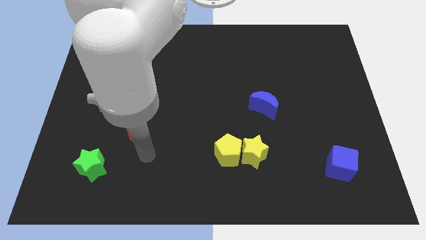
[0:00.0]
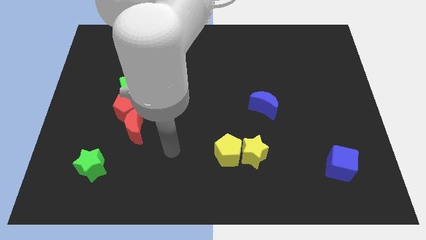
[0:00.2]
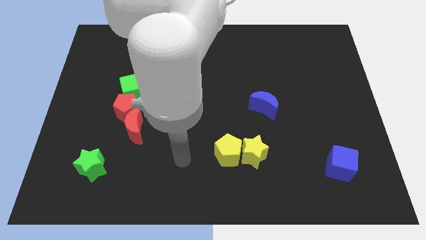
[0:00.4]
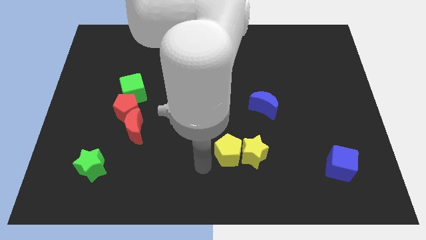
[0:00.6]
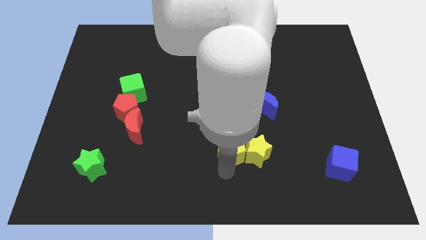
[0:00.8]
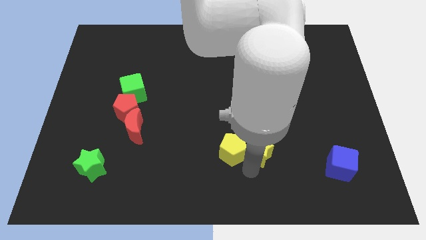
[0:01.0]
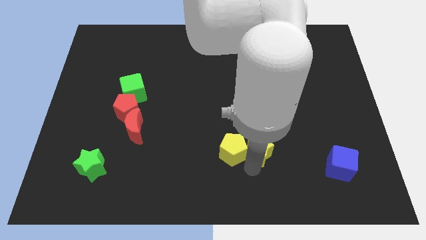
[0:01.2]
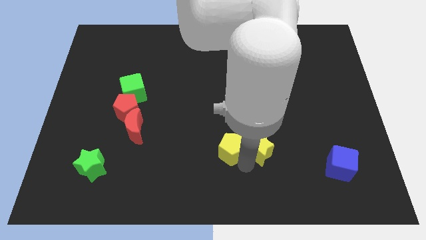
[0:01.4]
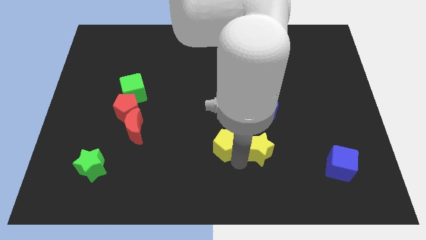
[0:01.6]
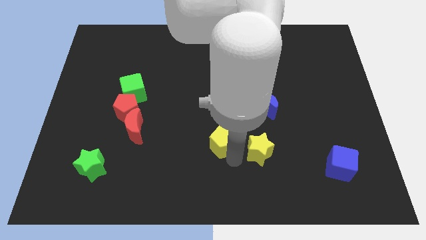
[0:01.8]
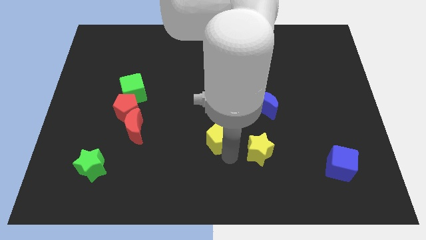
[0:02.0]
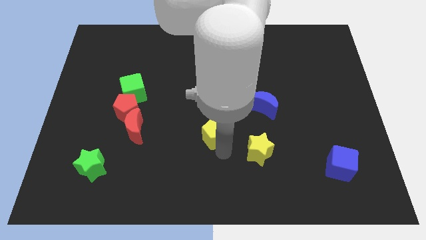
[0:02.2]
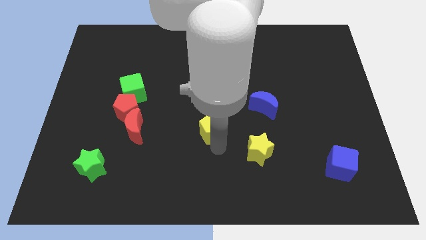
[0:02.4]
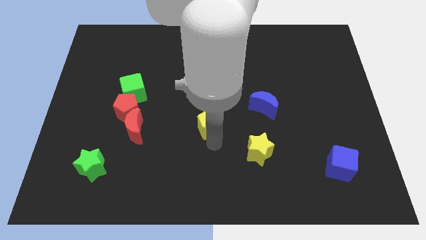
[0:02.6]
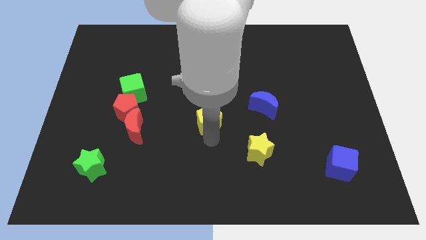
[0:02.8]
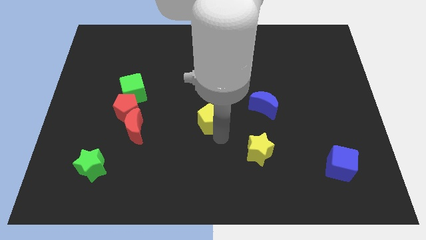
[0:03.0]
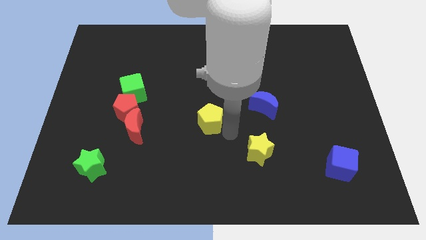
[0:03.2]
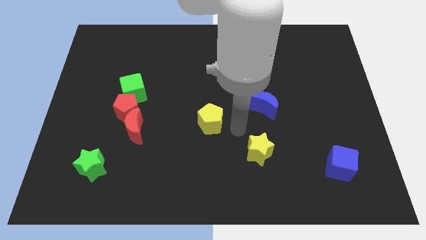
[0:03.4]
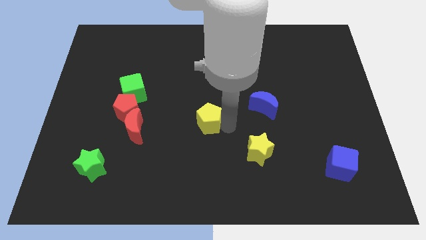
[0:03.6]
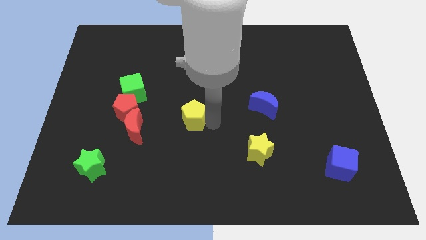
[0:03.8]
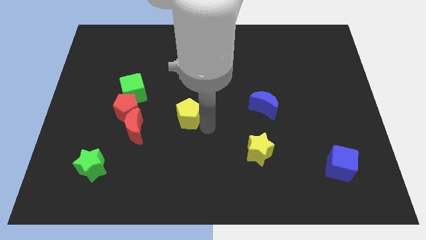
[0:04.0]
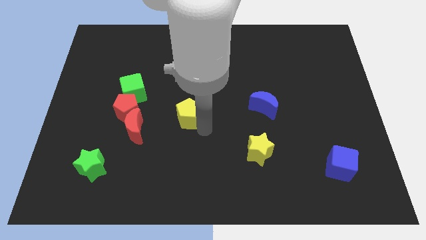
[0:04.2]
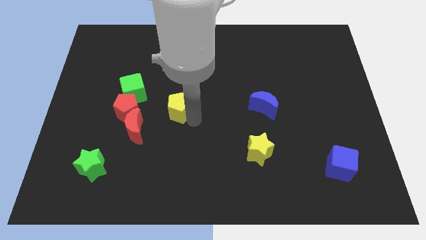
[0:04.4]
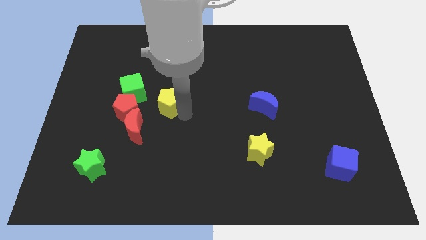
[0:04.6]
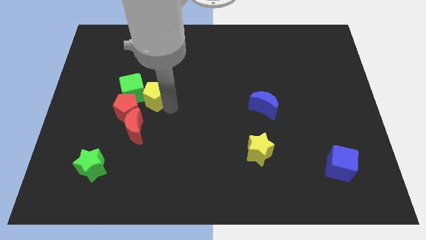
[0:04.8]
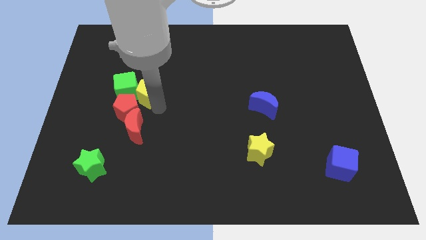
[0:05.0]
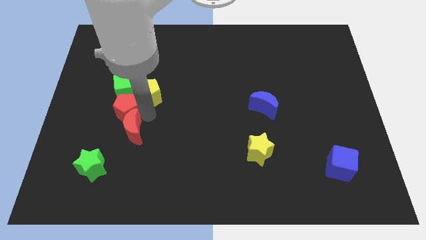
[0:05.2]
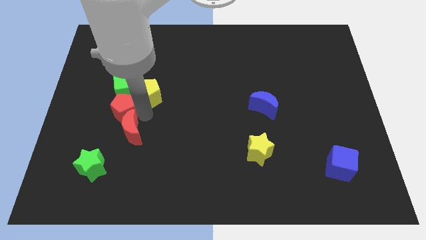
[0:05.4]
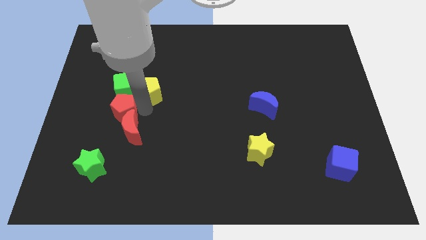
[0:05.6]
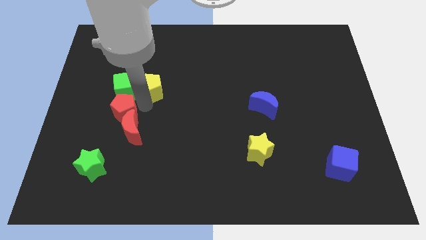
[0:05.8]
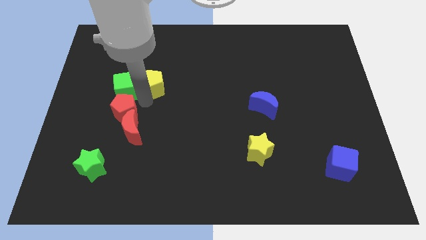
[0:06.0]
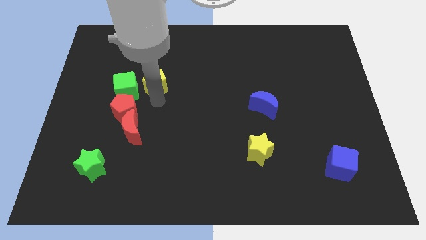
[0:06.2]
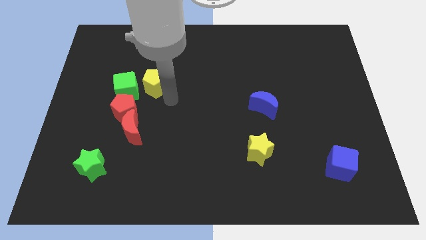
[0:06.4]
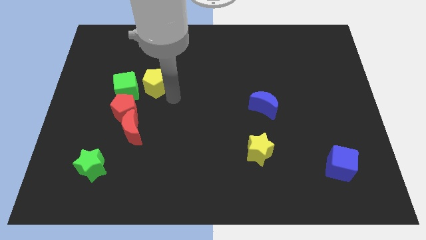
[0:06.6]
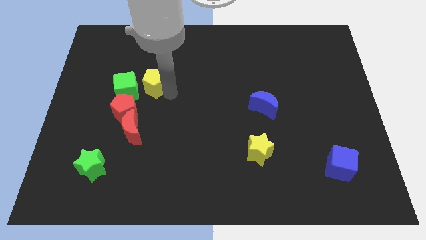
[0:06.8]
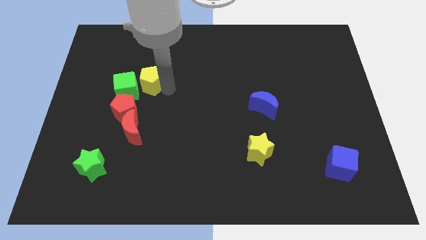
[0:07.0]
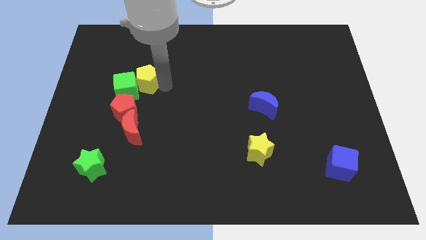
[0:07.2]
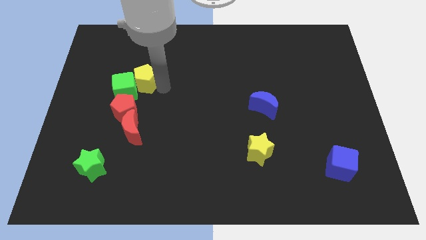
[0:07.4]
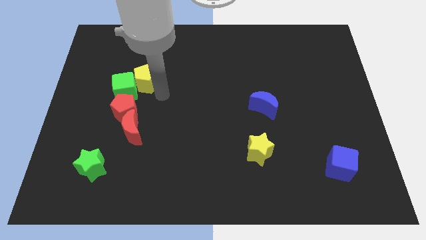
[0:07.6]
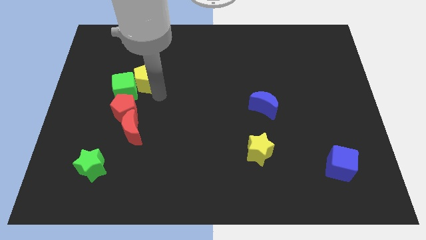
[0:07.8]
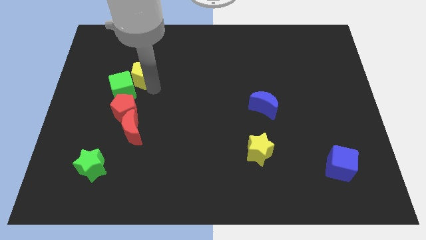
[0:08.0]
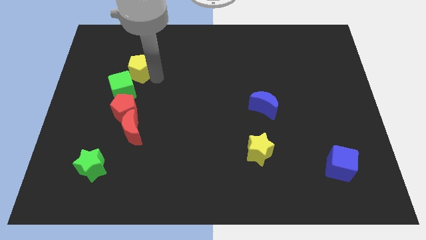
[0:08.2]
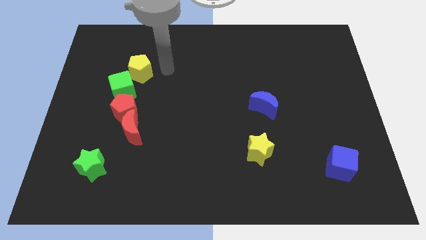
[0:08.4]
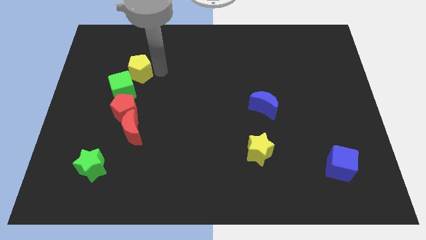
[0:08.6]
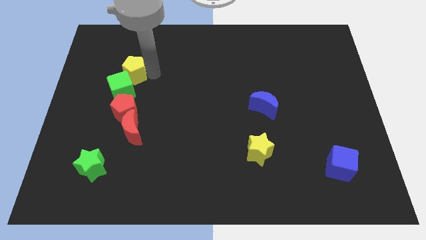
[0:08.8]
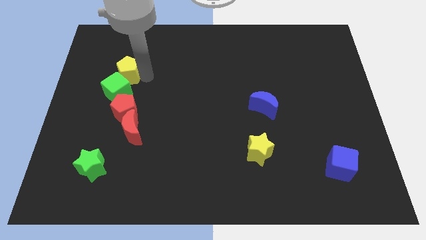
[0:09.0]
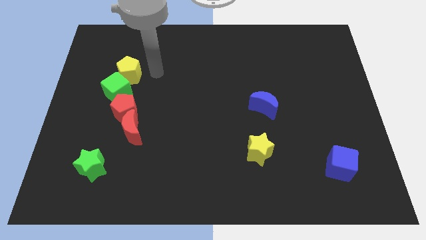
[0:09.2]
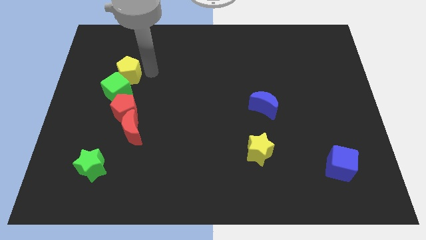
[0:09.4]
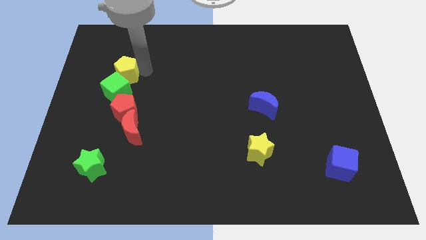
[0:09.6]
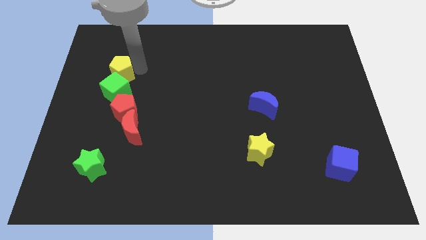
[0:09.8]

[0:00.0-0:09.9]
push the yellow pentagon to the top left of the green cube

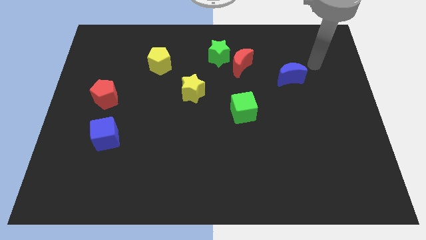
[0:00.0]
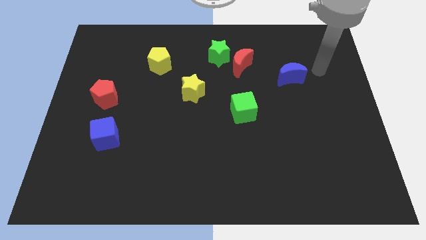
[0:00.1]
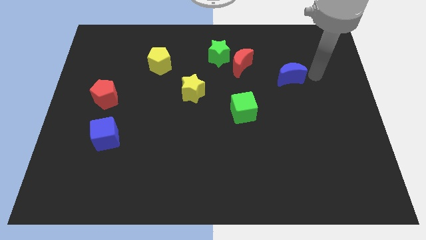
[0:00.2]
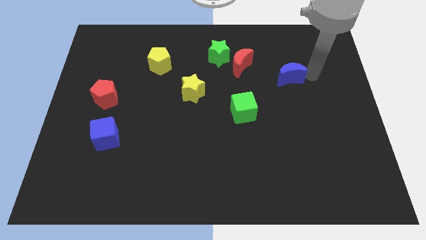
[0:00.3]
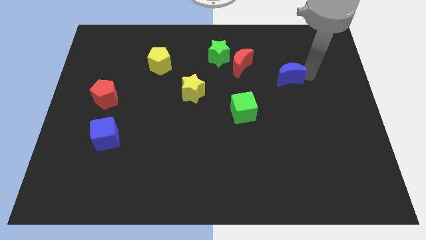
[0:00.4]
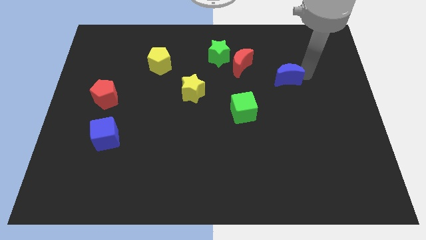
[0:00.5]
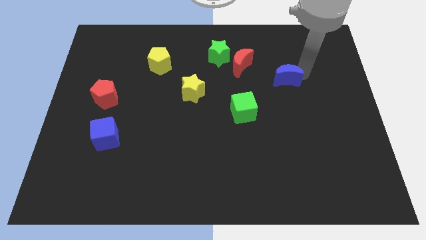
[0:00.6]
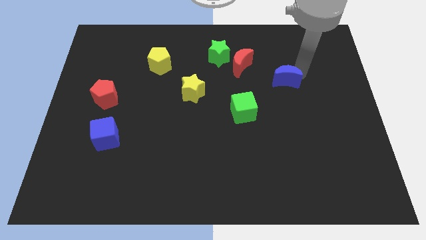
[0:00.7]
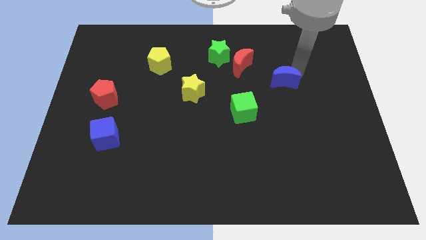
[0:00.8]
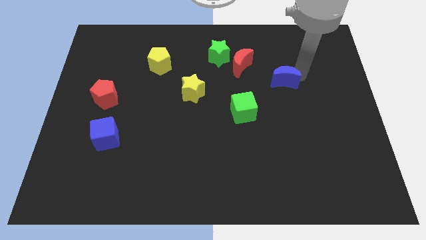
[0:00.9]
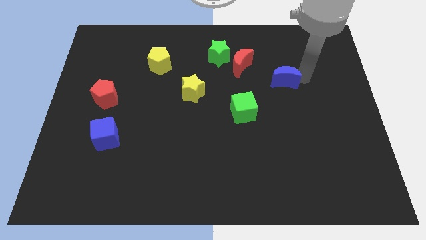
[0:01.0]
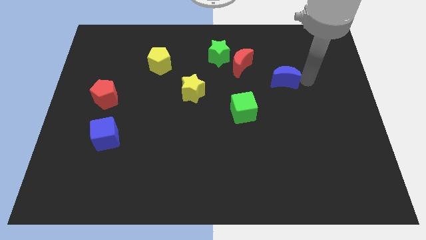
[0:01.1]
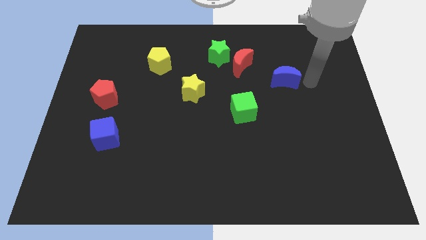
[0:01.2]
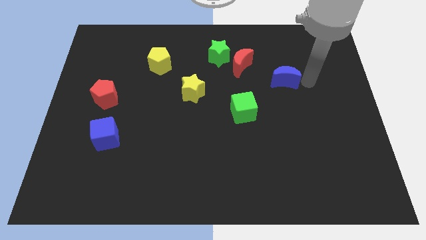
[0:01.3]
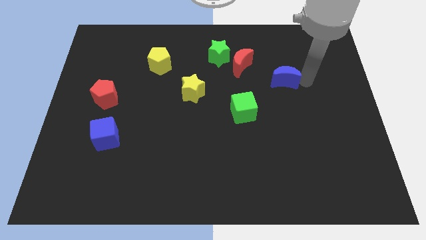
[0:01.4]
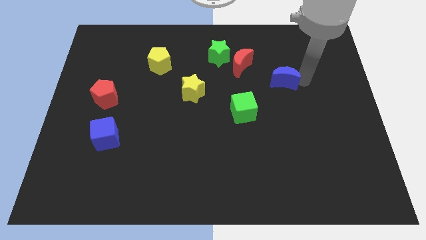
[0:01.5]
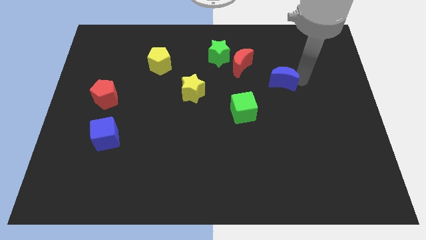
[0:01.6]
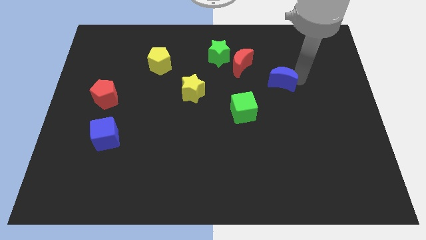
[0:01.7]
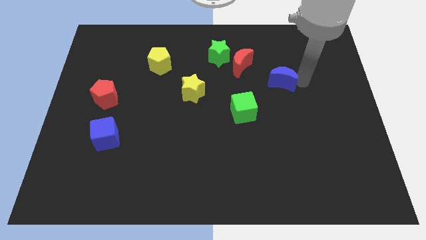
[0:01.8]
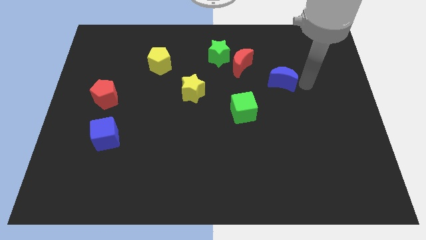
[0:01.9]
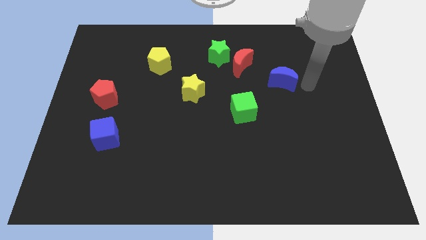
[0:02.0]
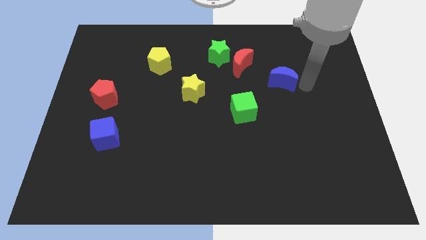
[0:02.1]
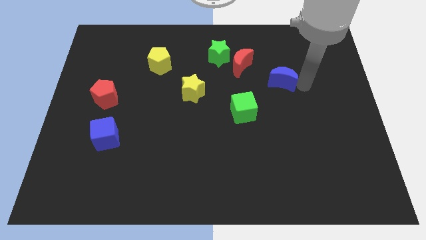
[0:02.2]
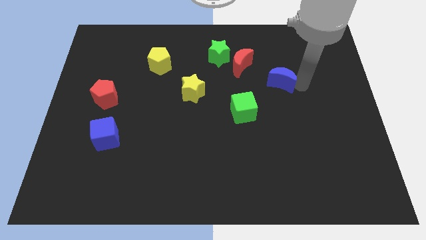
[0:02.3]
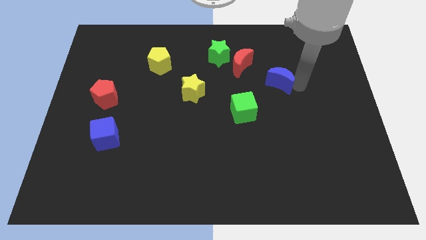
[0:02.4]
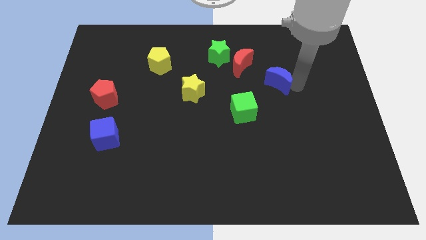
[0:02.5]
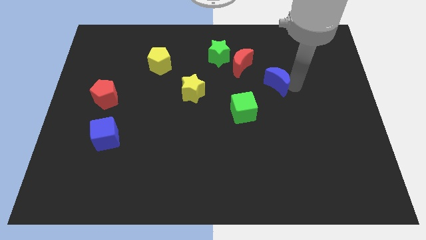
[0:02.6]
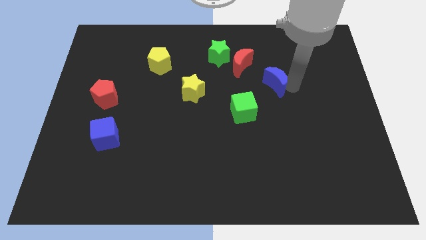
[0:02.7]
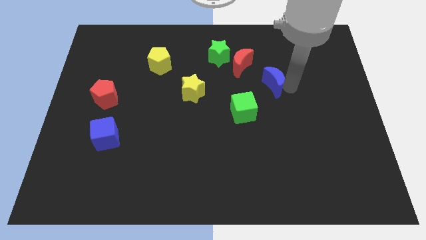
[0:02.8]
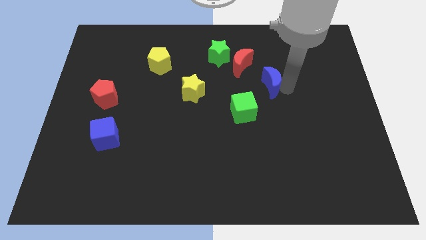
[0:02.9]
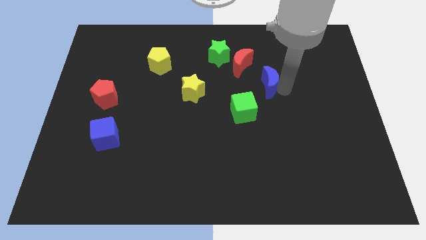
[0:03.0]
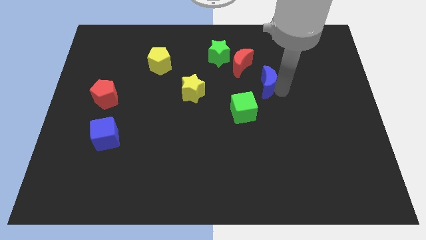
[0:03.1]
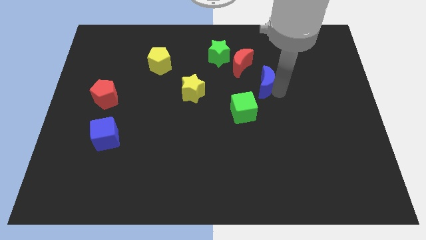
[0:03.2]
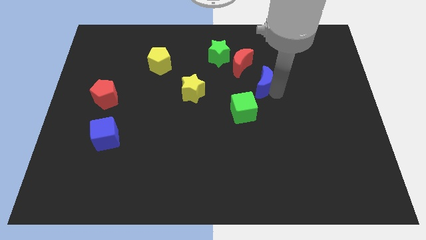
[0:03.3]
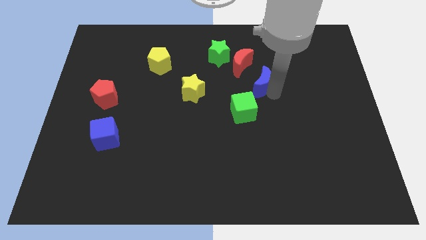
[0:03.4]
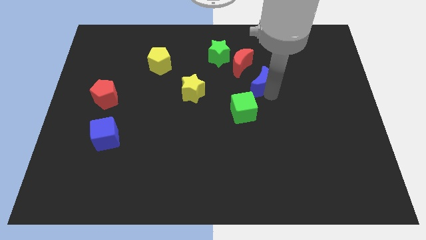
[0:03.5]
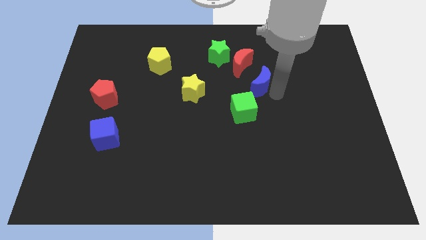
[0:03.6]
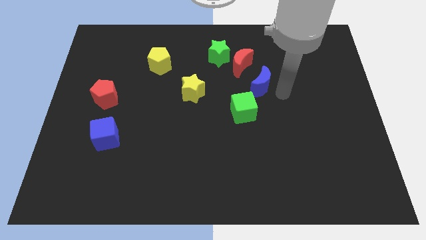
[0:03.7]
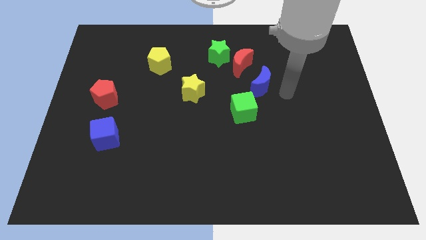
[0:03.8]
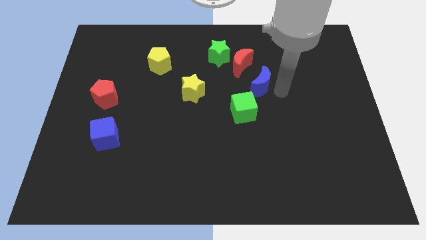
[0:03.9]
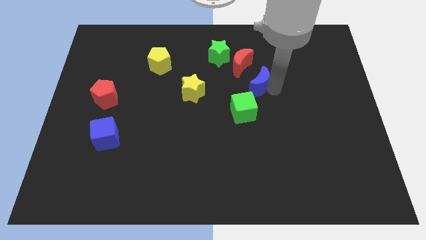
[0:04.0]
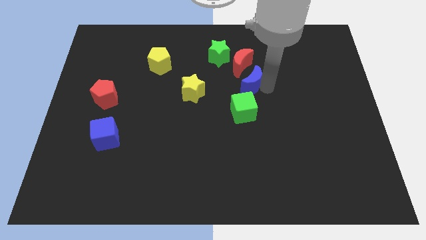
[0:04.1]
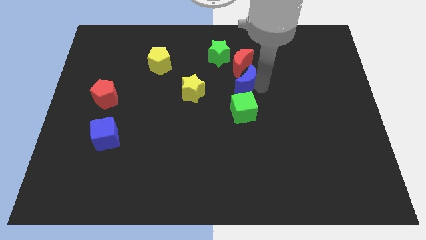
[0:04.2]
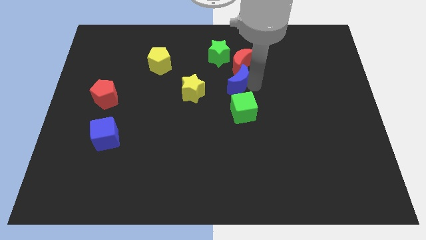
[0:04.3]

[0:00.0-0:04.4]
slide the blue moon to the bottom left side of the red moon
